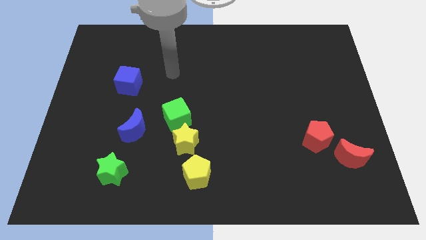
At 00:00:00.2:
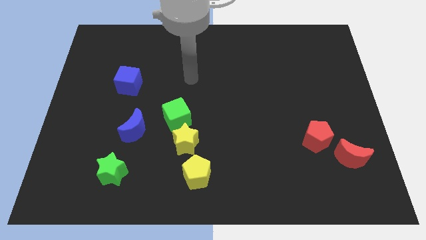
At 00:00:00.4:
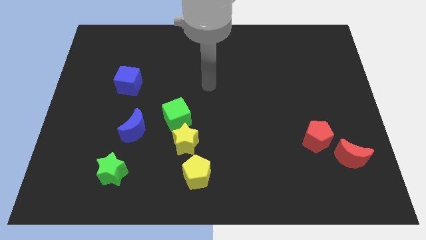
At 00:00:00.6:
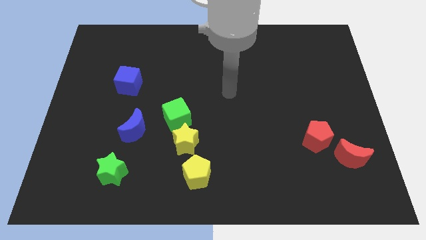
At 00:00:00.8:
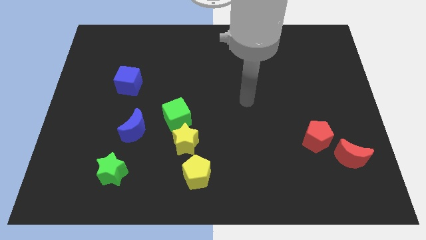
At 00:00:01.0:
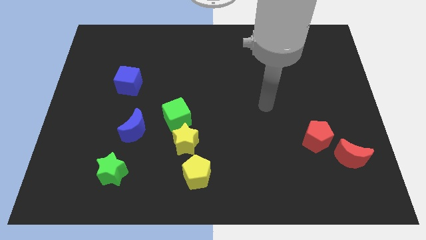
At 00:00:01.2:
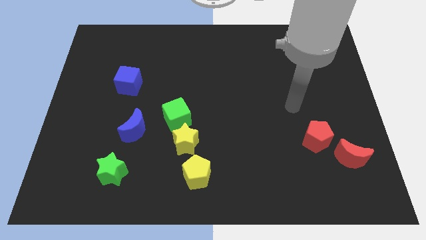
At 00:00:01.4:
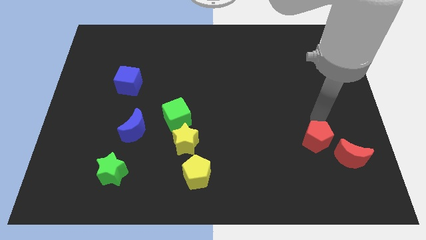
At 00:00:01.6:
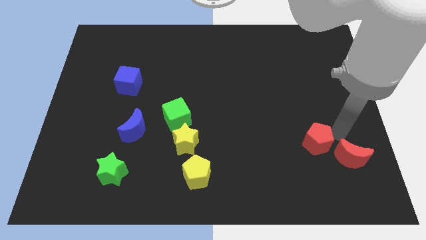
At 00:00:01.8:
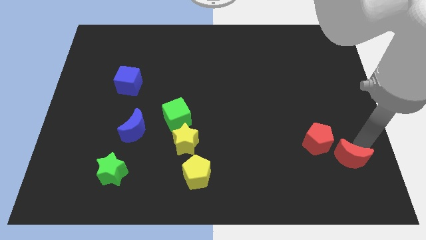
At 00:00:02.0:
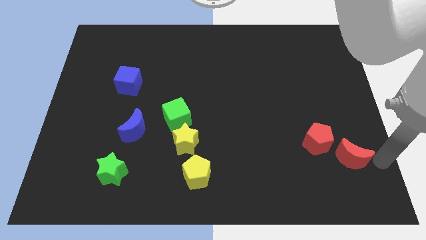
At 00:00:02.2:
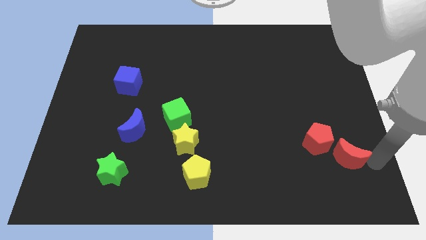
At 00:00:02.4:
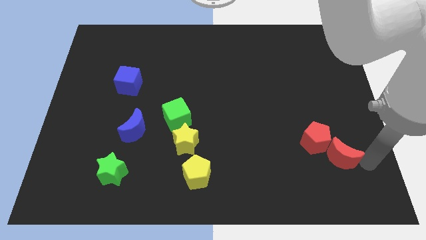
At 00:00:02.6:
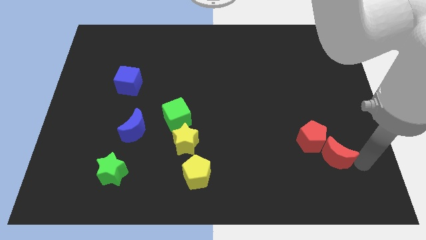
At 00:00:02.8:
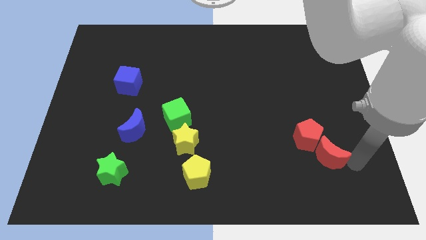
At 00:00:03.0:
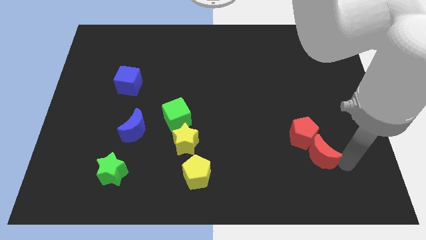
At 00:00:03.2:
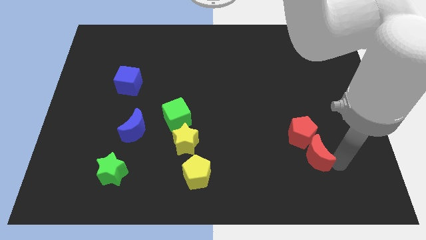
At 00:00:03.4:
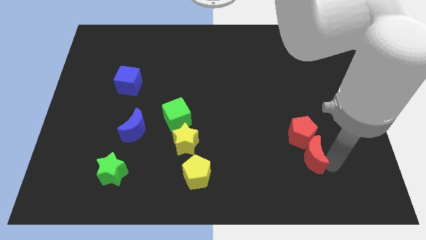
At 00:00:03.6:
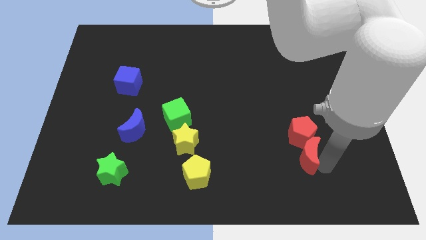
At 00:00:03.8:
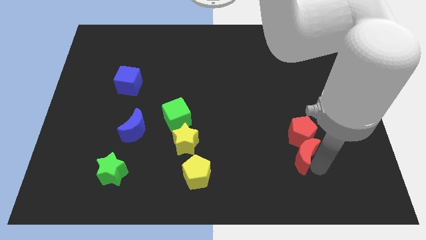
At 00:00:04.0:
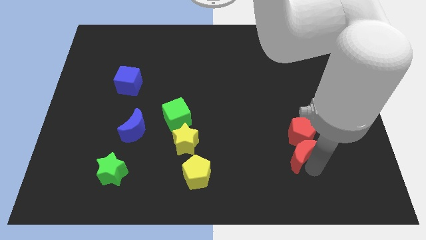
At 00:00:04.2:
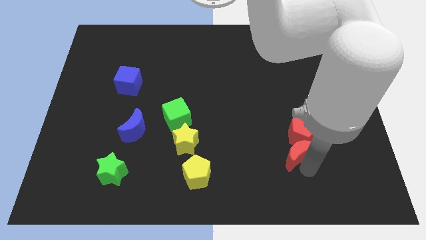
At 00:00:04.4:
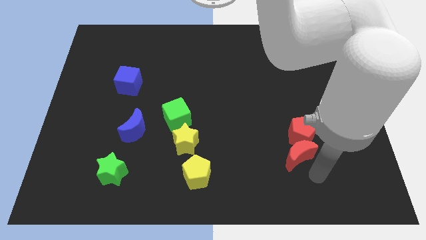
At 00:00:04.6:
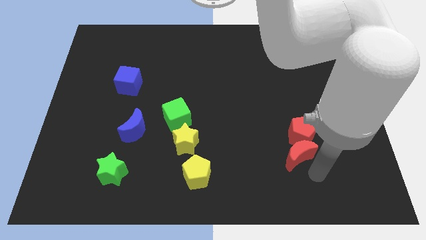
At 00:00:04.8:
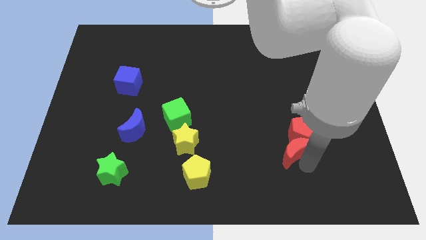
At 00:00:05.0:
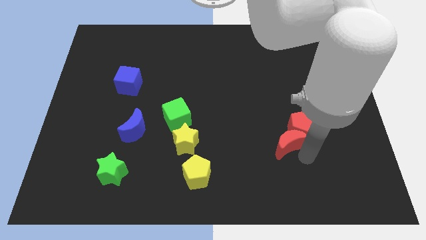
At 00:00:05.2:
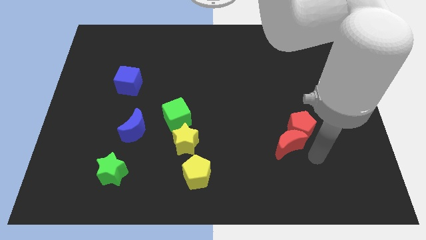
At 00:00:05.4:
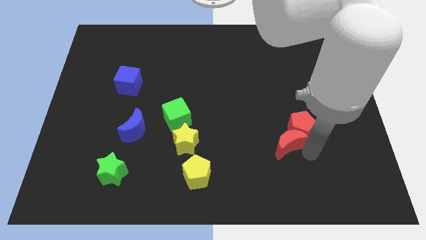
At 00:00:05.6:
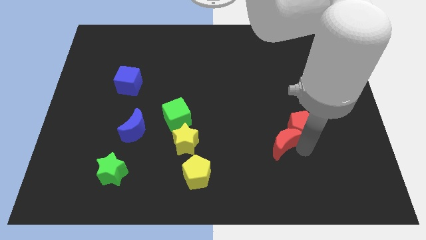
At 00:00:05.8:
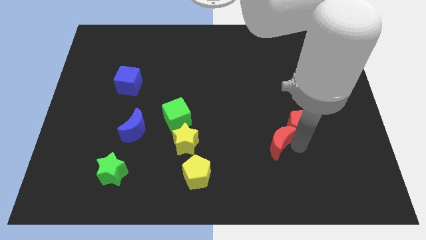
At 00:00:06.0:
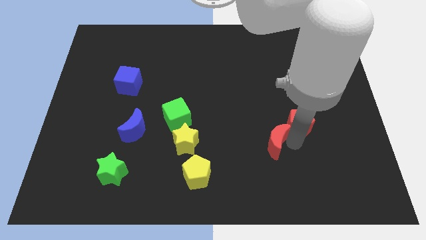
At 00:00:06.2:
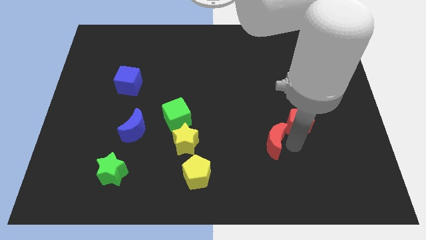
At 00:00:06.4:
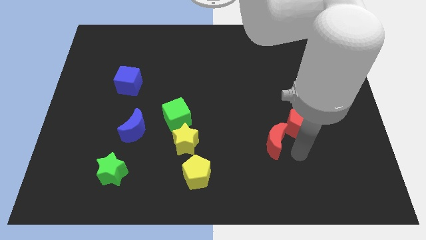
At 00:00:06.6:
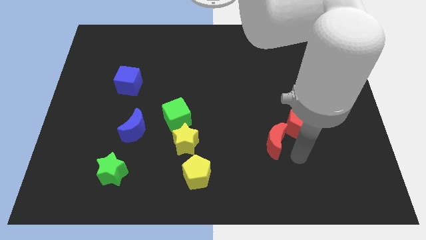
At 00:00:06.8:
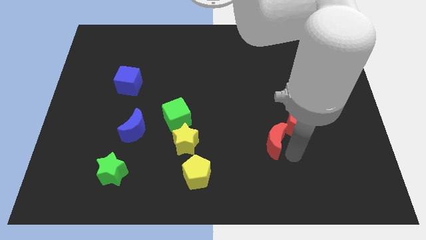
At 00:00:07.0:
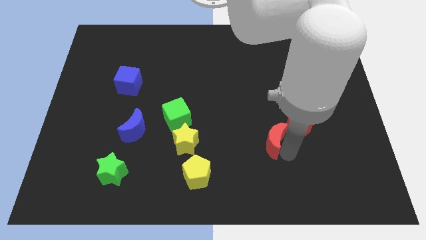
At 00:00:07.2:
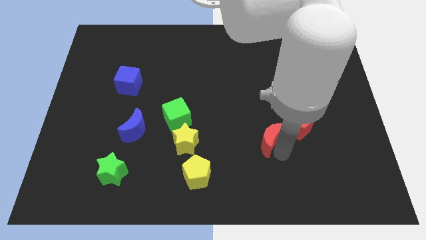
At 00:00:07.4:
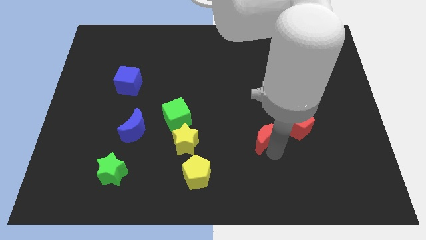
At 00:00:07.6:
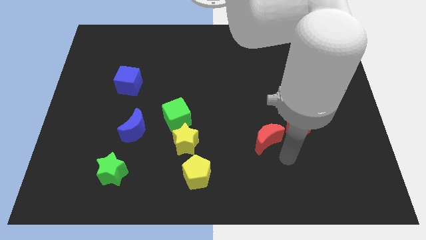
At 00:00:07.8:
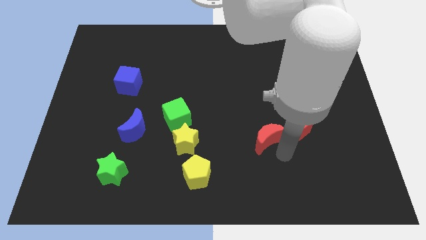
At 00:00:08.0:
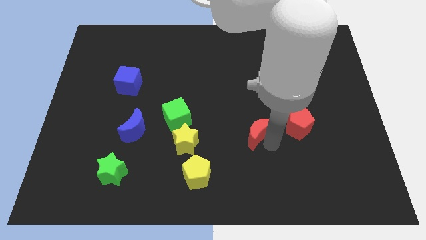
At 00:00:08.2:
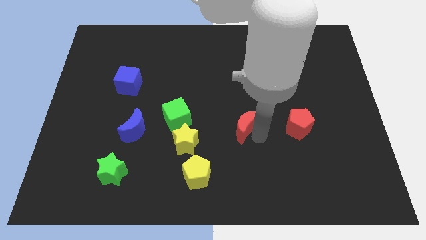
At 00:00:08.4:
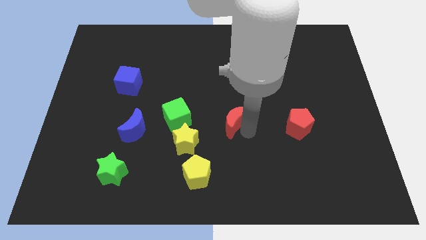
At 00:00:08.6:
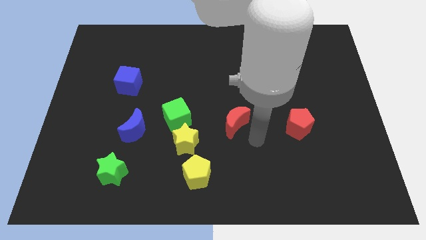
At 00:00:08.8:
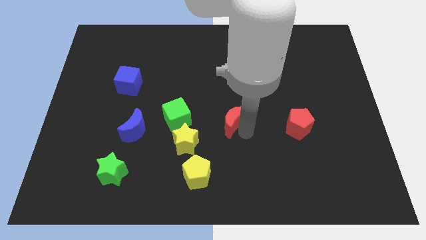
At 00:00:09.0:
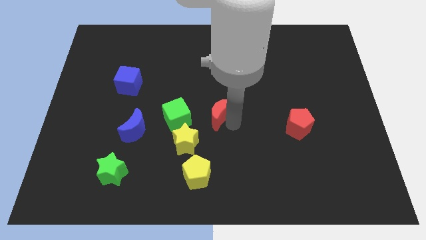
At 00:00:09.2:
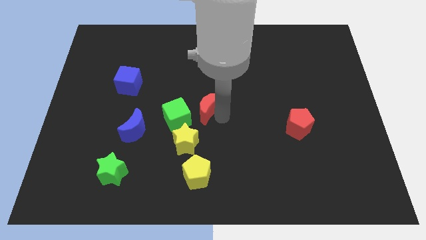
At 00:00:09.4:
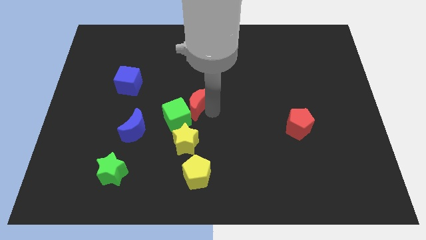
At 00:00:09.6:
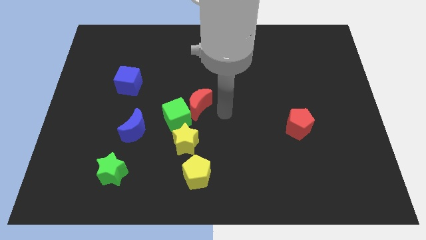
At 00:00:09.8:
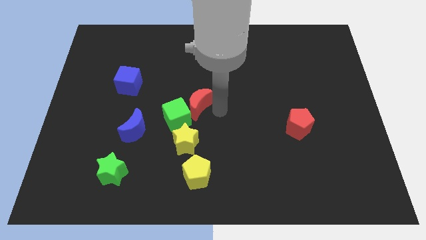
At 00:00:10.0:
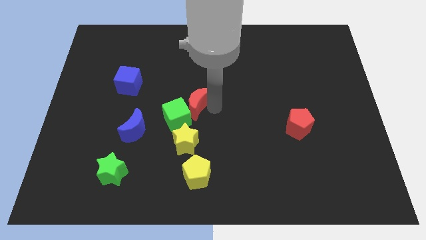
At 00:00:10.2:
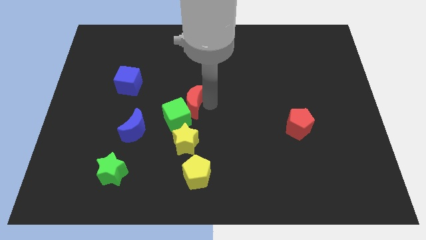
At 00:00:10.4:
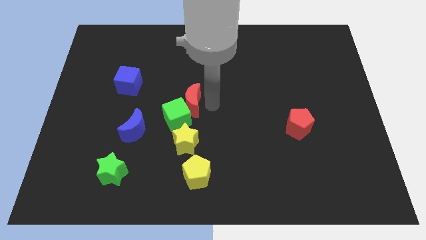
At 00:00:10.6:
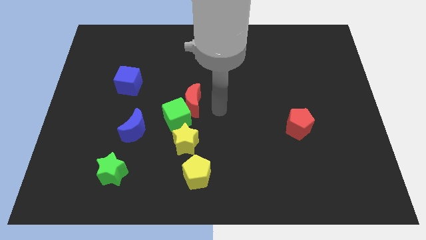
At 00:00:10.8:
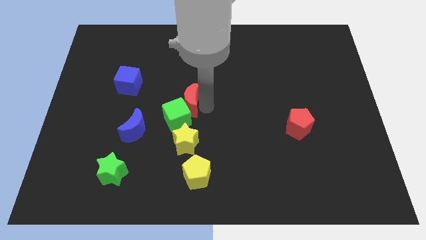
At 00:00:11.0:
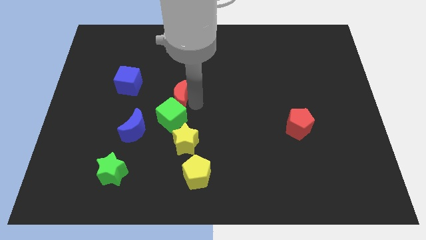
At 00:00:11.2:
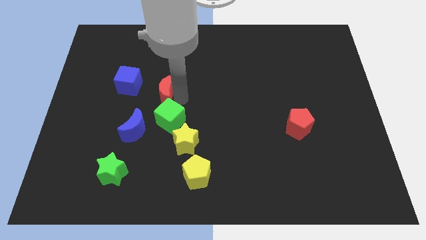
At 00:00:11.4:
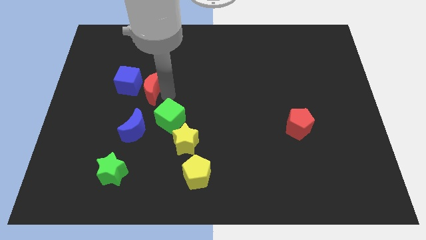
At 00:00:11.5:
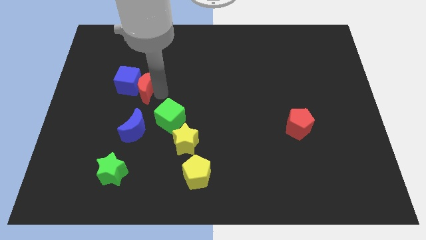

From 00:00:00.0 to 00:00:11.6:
move the red moon to the blue cube

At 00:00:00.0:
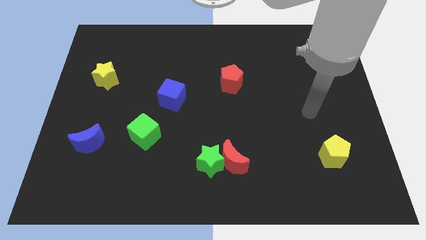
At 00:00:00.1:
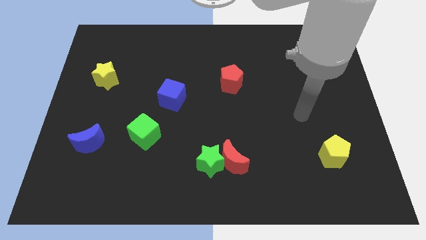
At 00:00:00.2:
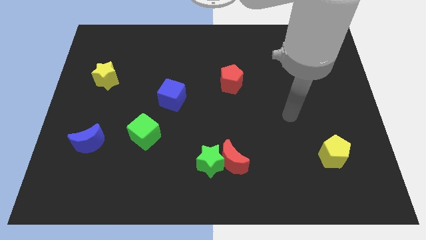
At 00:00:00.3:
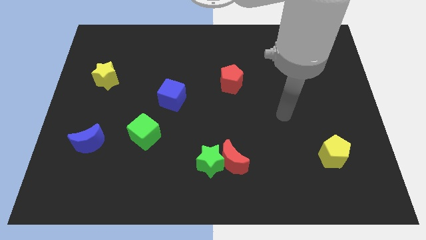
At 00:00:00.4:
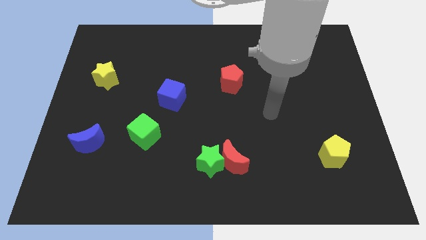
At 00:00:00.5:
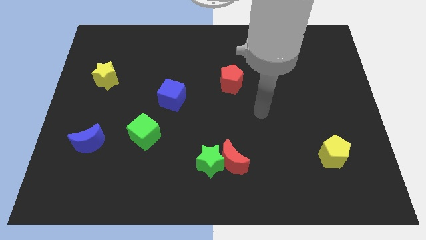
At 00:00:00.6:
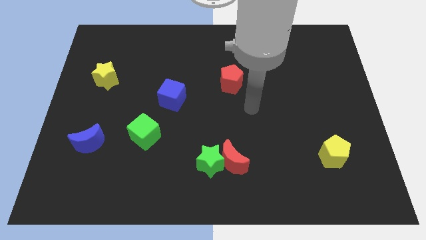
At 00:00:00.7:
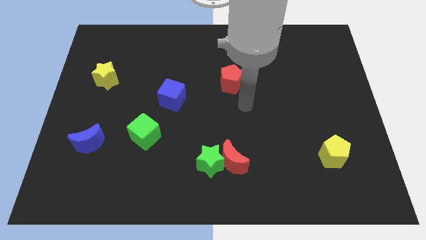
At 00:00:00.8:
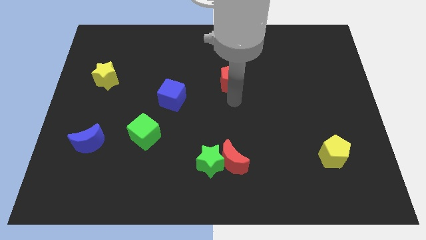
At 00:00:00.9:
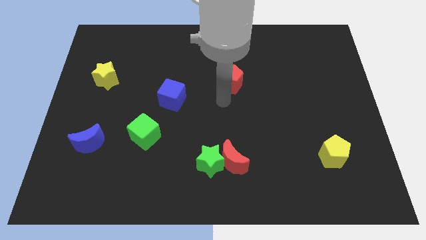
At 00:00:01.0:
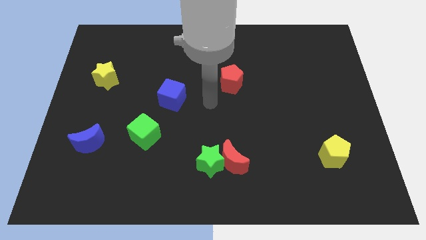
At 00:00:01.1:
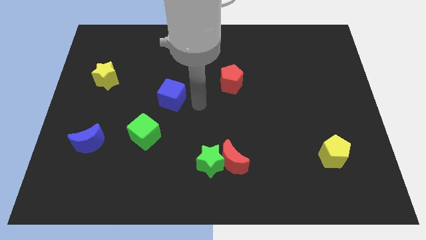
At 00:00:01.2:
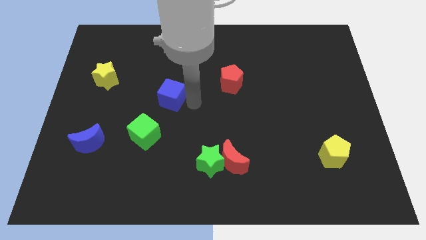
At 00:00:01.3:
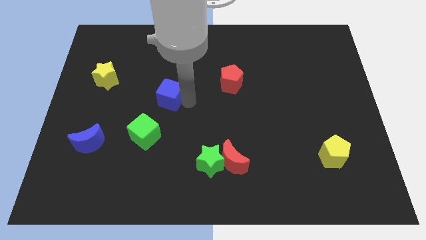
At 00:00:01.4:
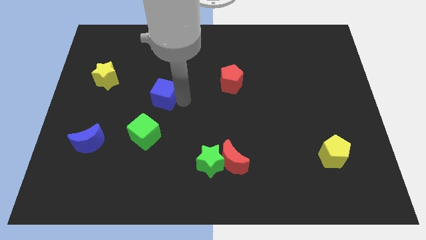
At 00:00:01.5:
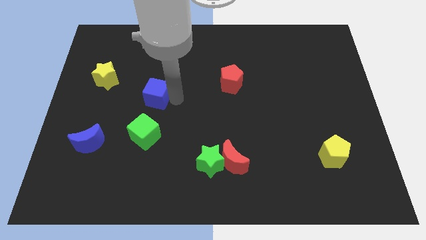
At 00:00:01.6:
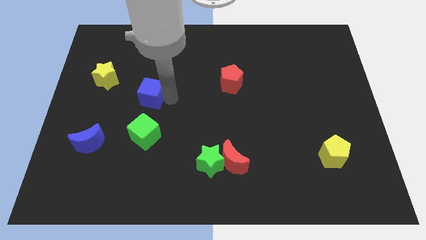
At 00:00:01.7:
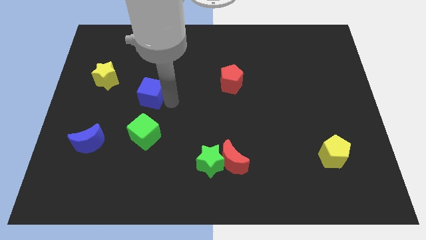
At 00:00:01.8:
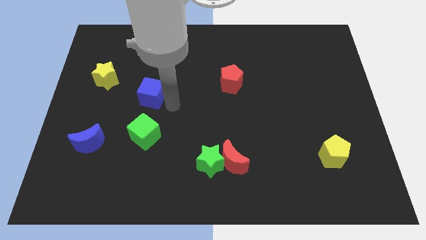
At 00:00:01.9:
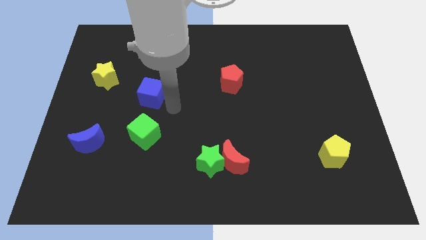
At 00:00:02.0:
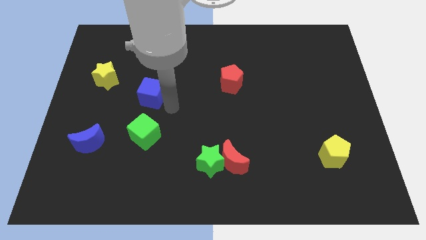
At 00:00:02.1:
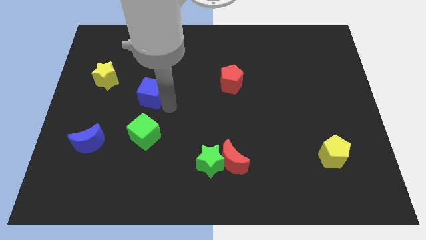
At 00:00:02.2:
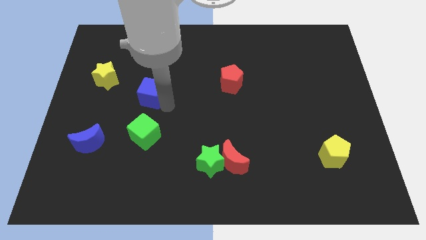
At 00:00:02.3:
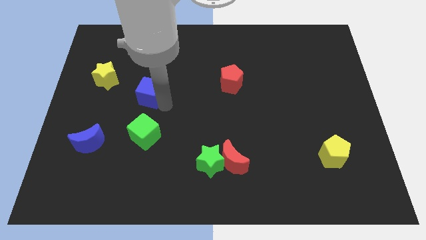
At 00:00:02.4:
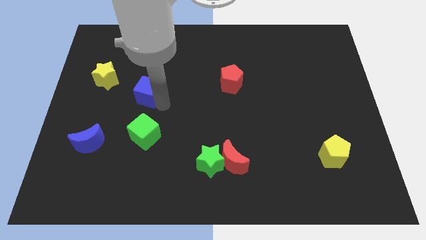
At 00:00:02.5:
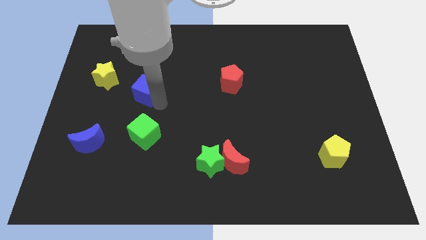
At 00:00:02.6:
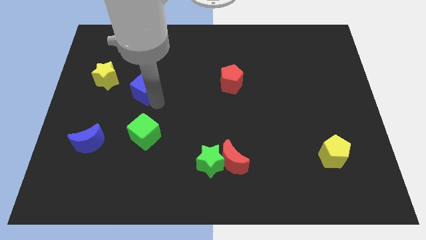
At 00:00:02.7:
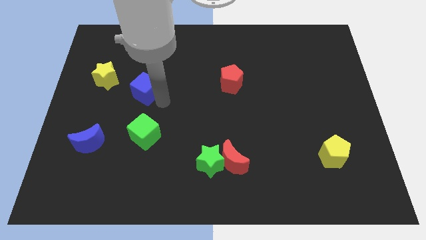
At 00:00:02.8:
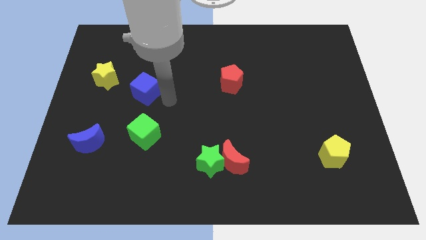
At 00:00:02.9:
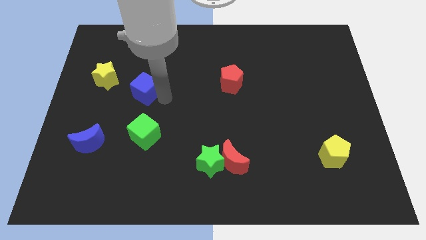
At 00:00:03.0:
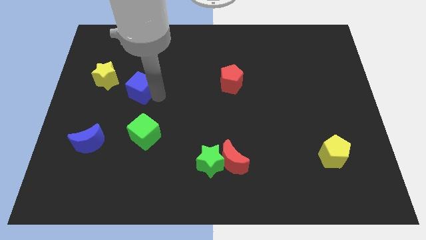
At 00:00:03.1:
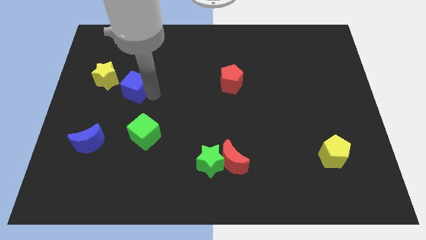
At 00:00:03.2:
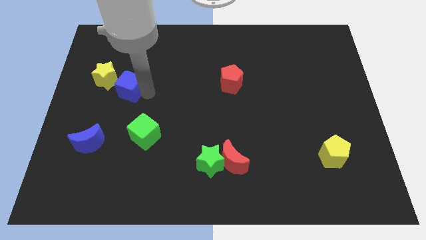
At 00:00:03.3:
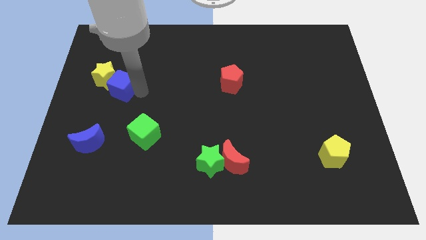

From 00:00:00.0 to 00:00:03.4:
slide the blue cube close to the yellow star
